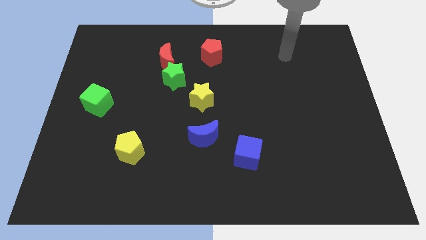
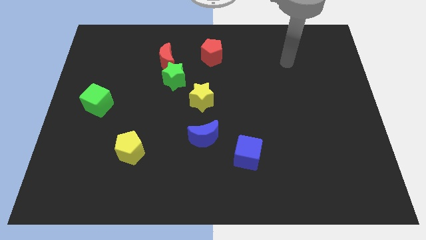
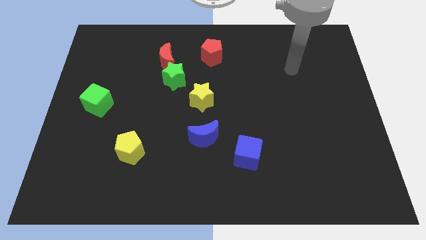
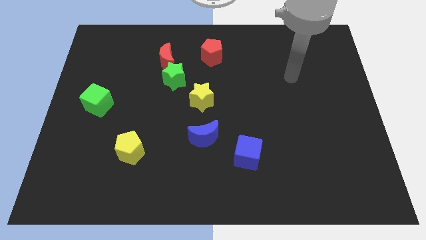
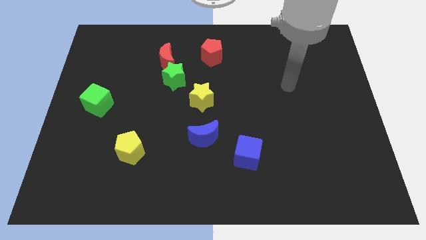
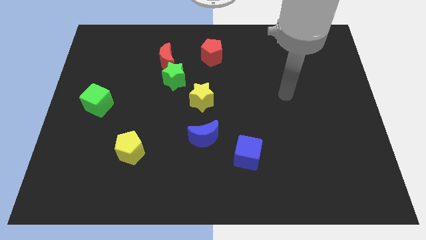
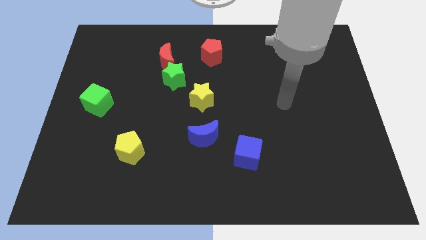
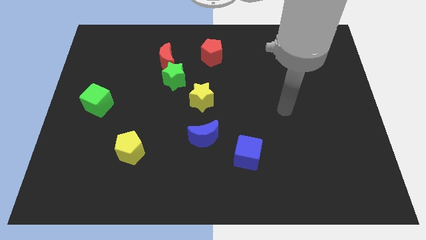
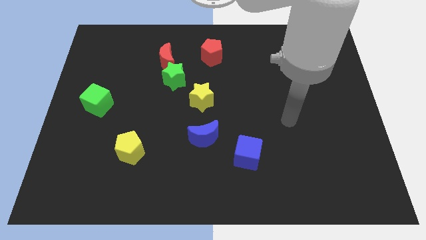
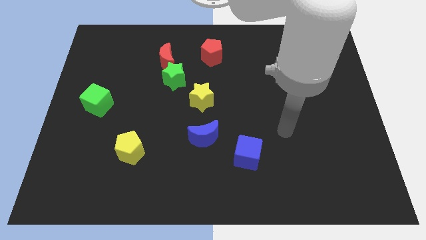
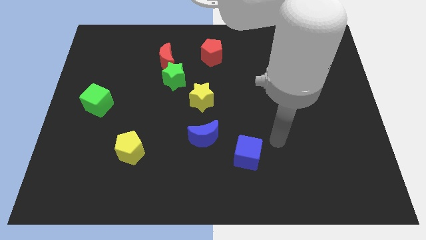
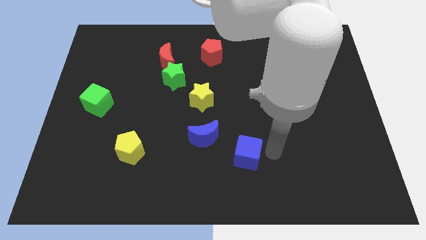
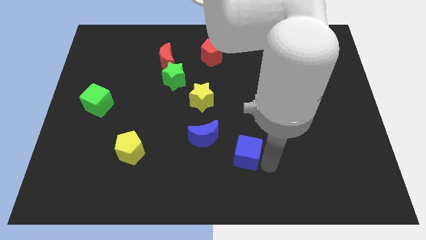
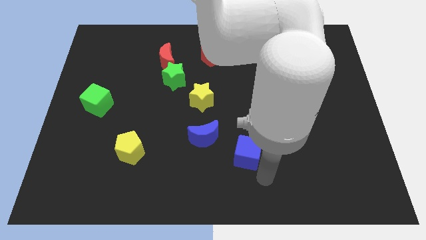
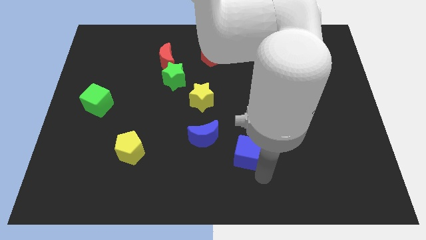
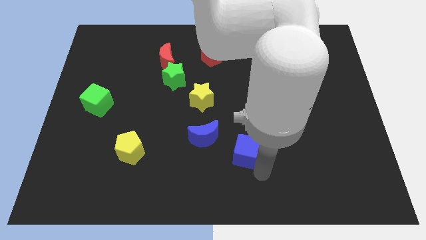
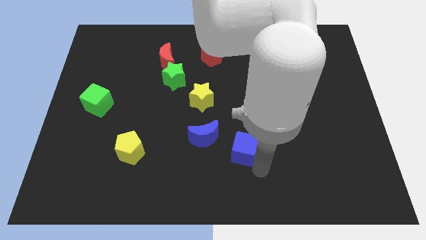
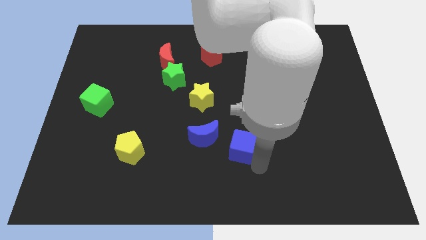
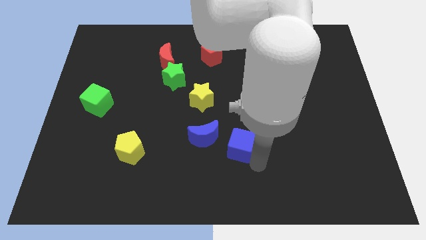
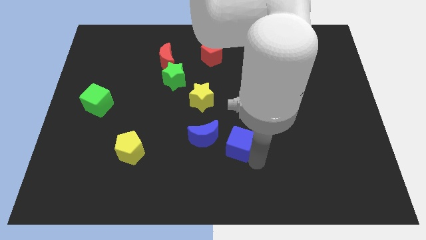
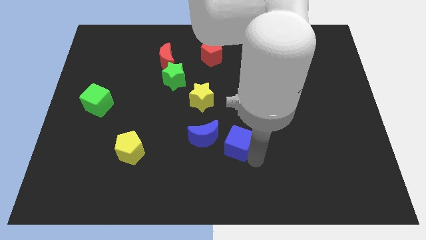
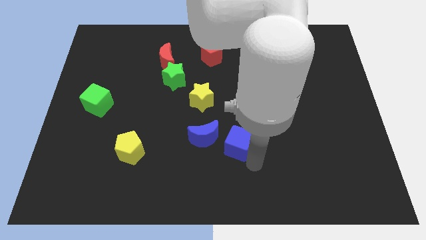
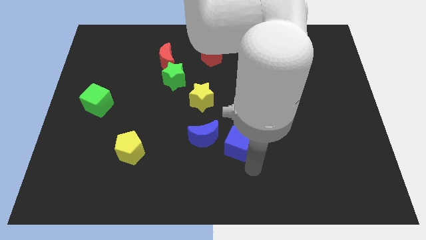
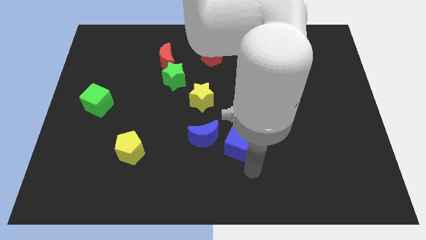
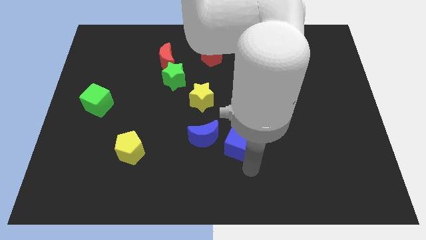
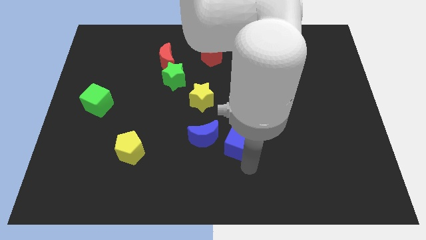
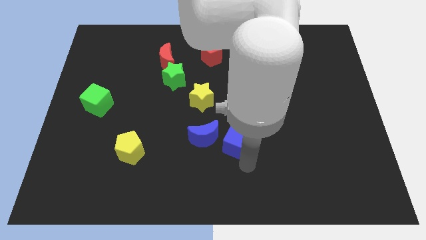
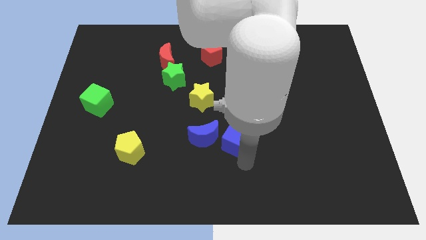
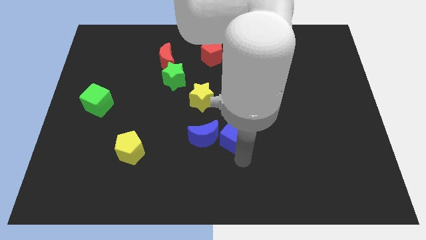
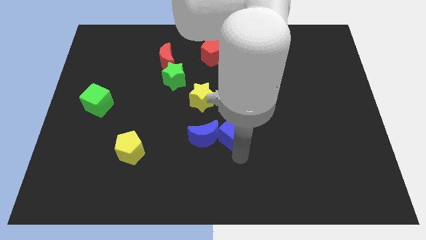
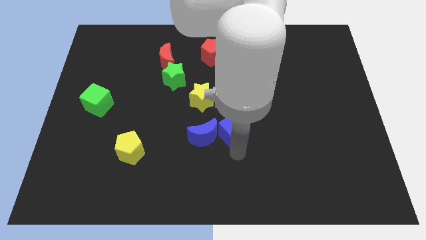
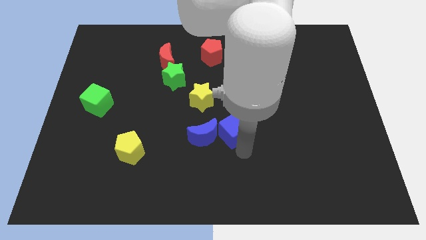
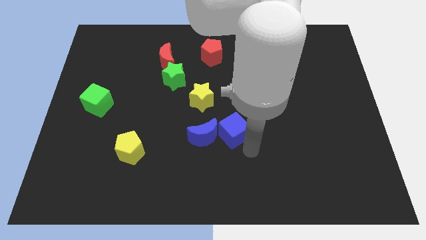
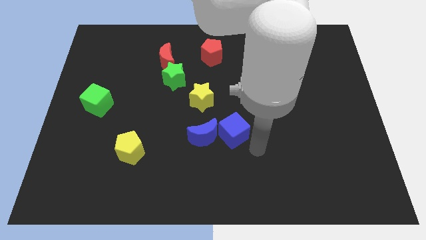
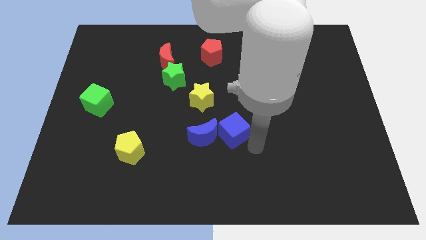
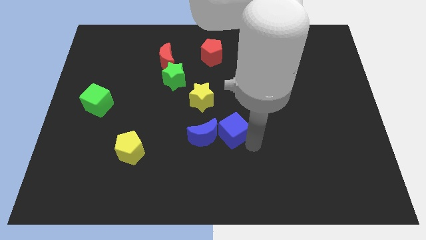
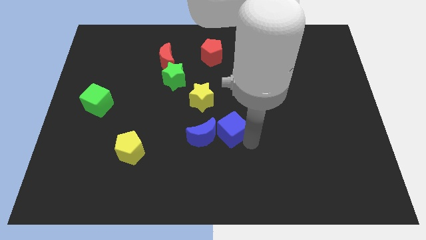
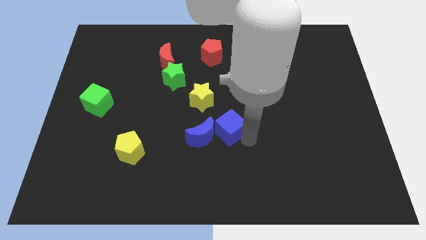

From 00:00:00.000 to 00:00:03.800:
slightly slide the blue cube upwards and then to the left

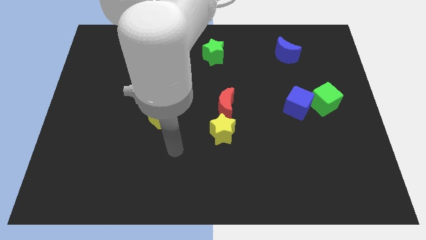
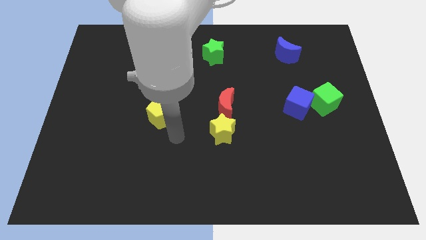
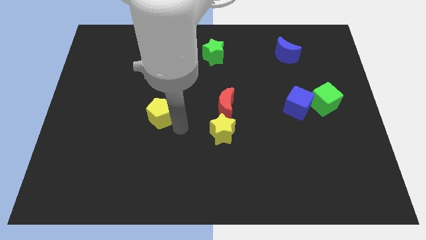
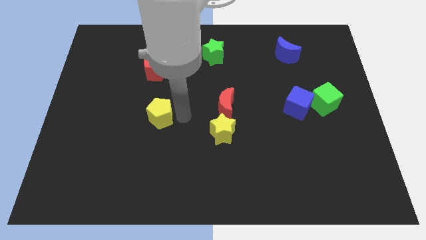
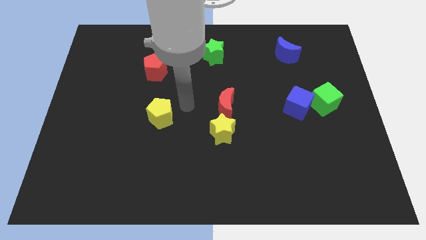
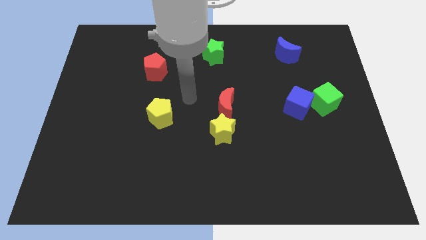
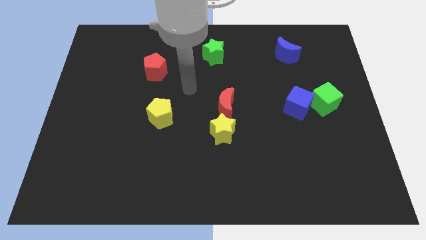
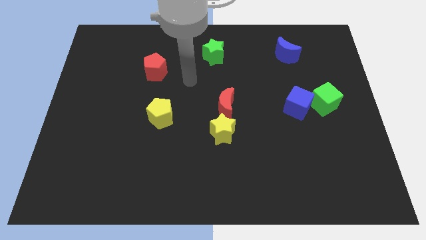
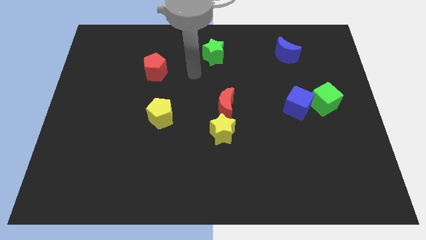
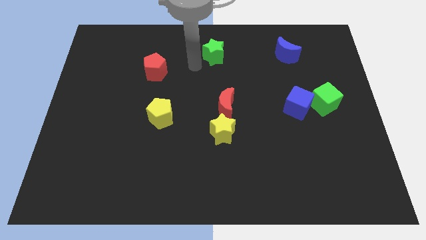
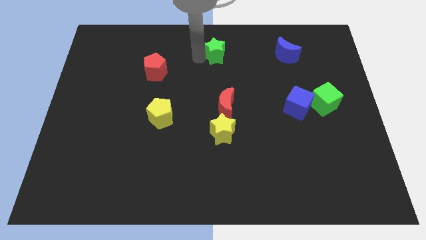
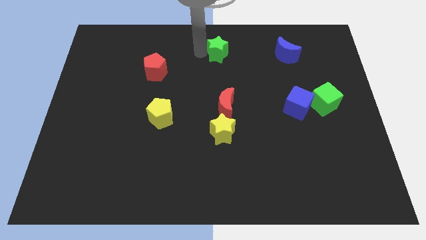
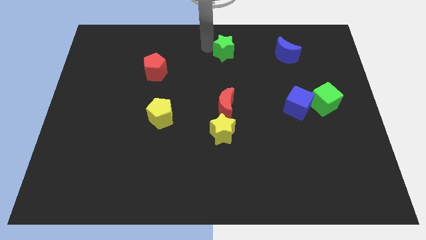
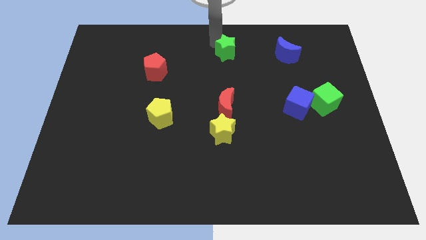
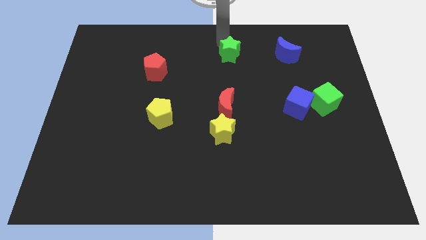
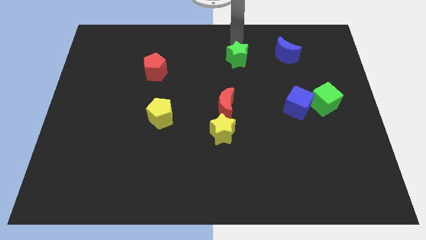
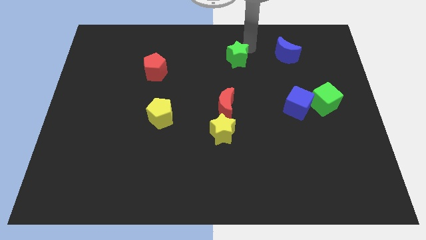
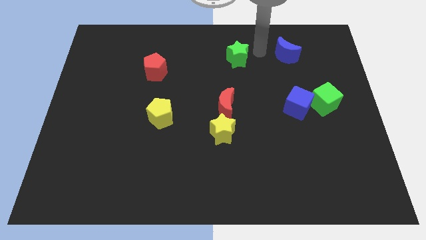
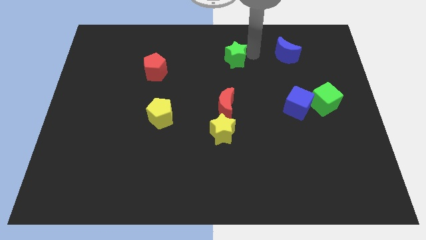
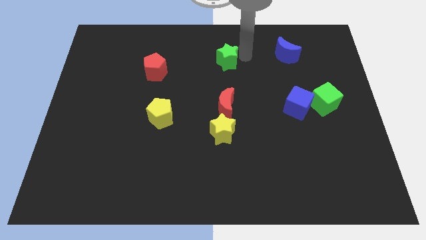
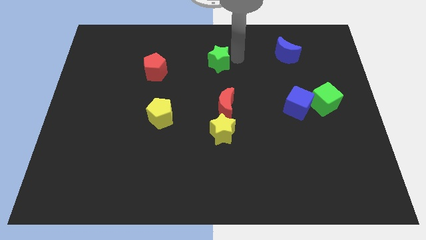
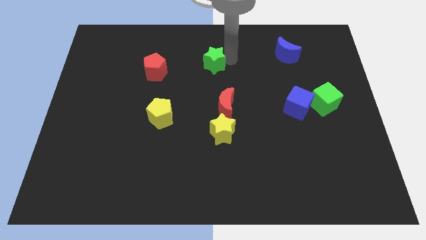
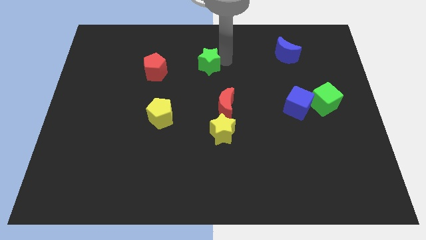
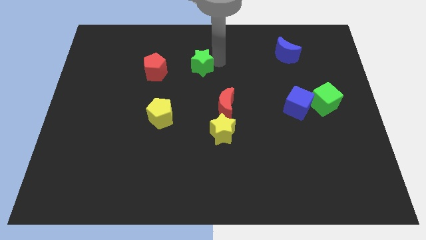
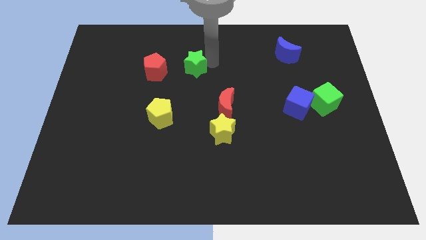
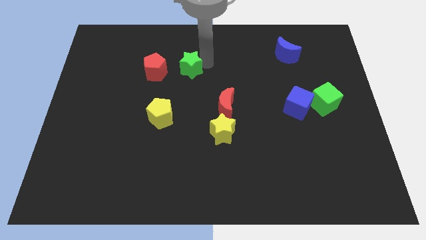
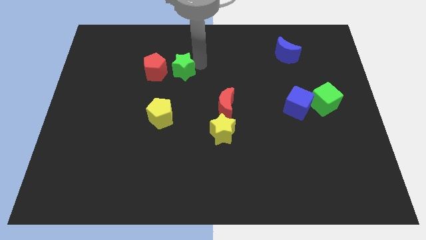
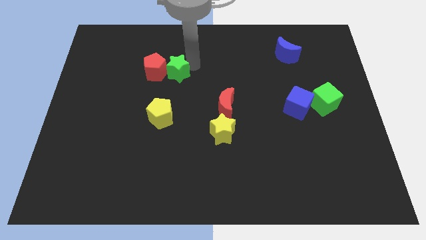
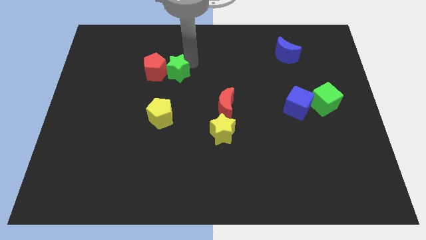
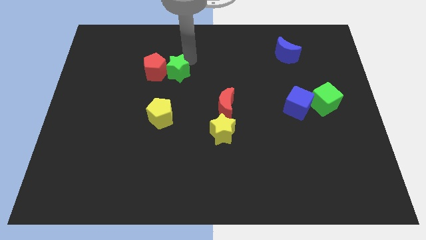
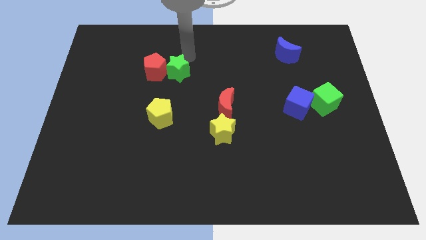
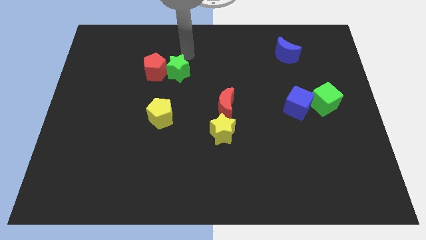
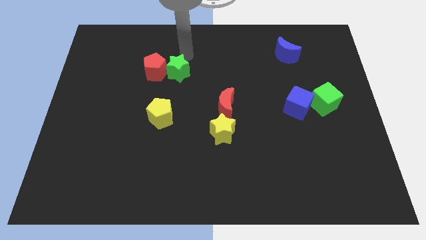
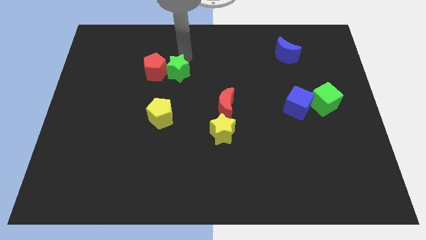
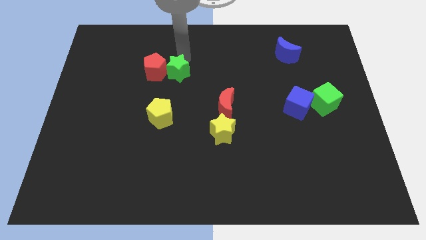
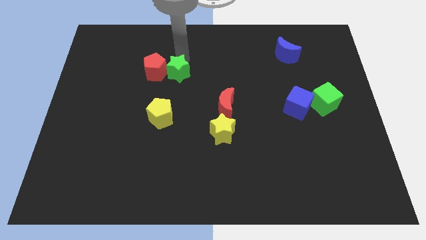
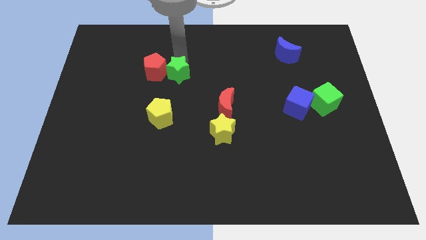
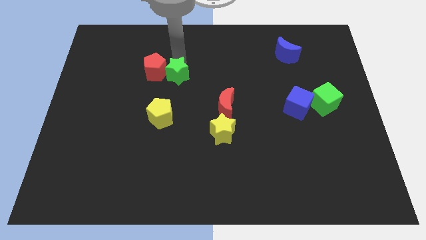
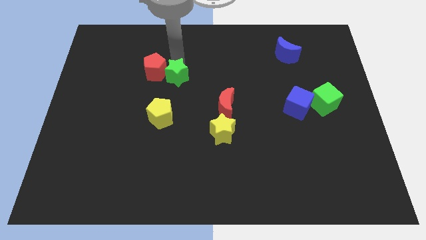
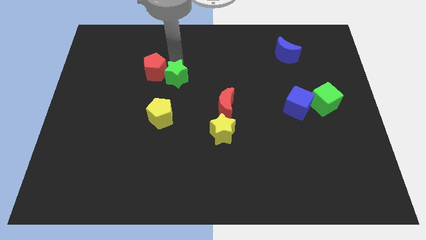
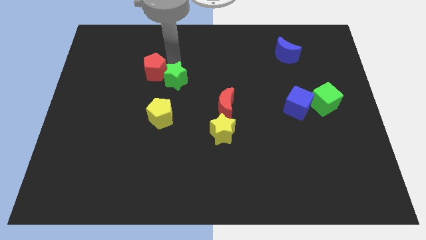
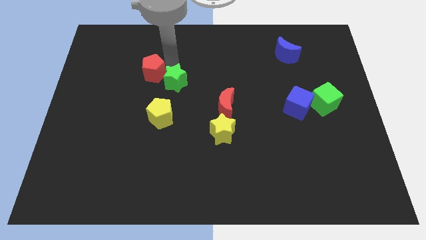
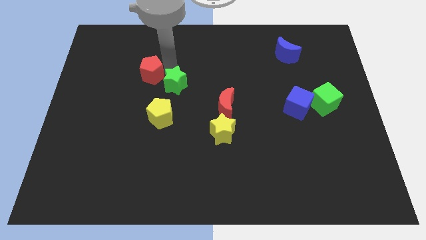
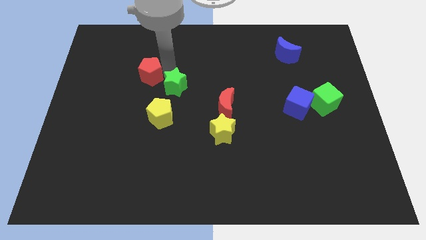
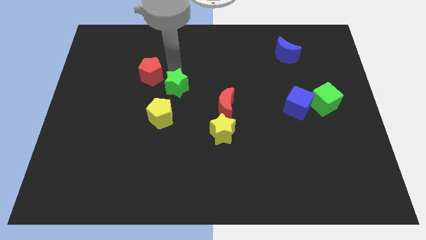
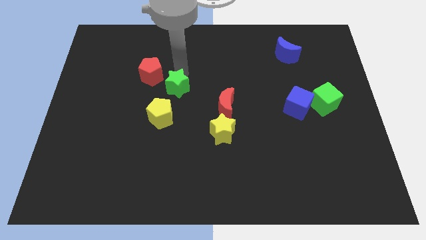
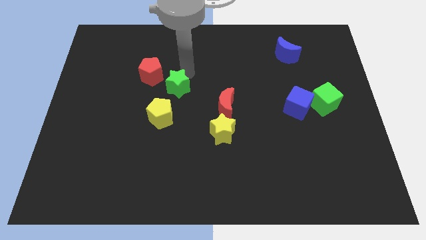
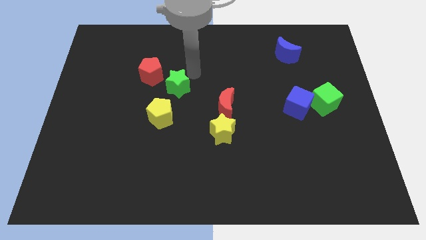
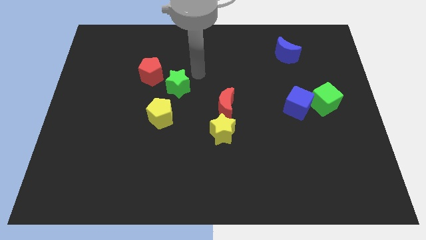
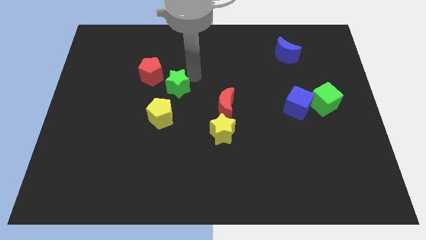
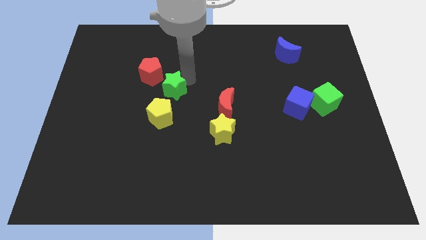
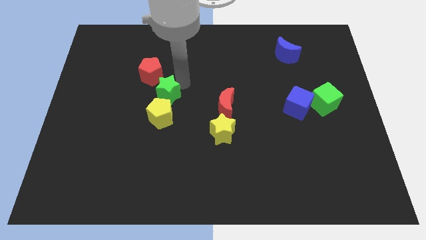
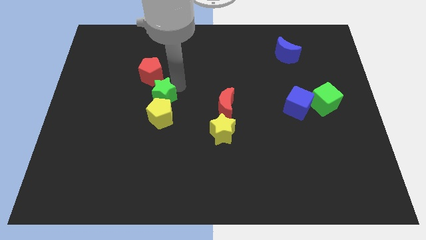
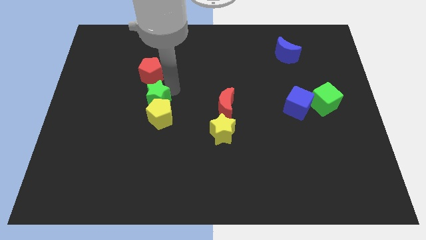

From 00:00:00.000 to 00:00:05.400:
move the green star downwards and then left
